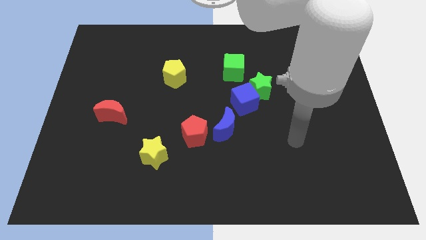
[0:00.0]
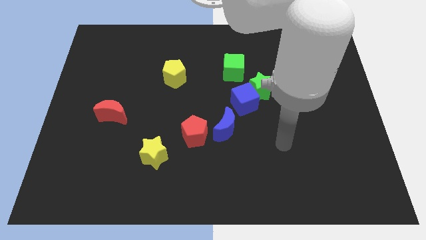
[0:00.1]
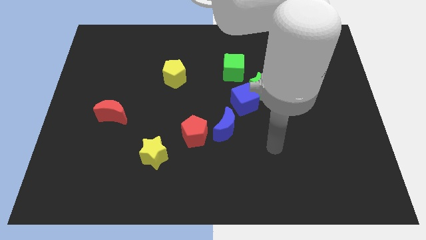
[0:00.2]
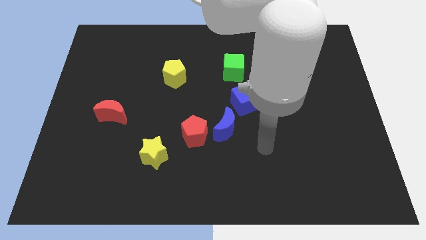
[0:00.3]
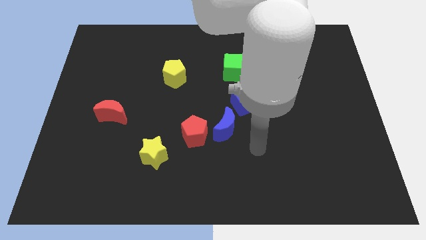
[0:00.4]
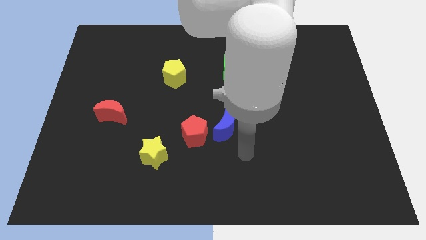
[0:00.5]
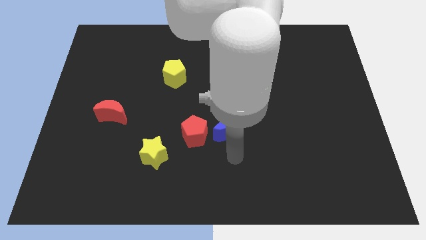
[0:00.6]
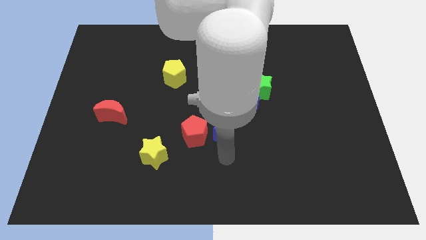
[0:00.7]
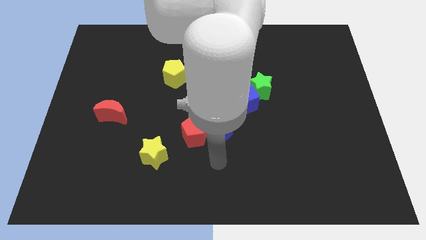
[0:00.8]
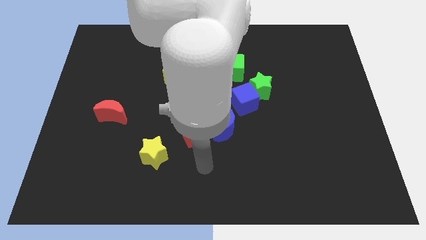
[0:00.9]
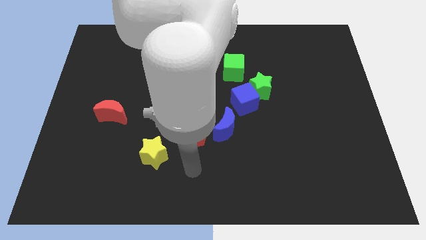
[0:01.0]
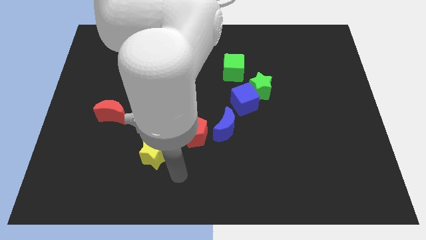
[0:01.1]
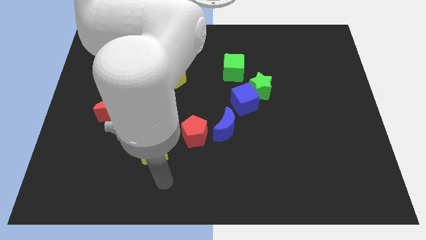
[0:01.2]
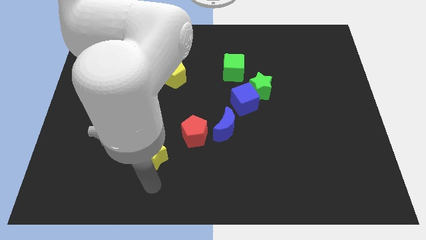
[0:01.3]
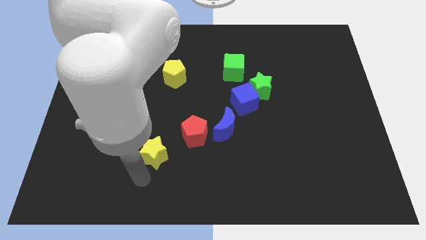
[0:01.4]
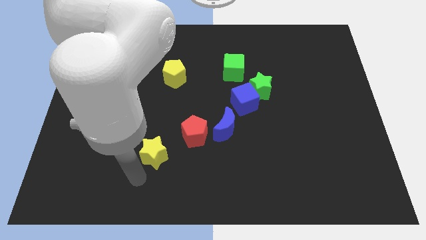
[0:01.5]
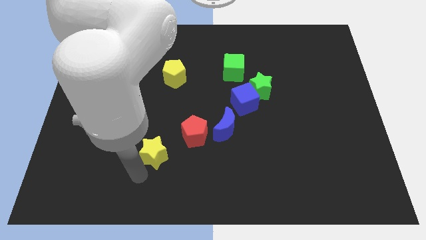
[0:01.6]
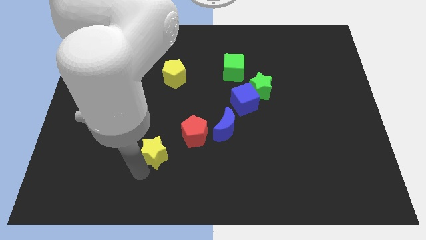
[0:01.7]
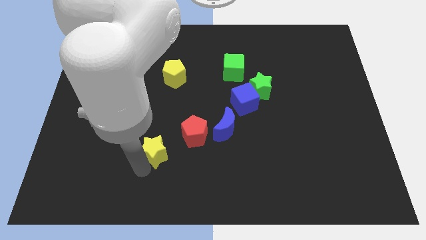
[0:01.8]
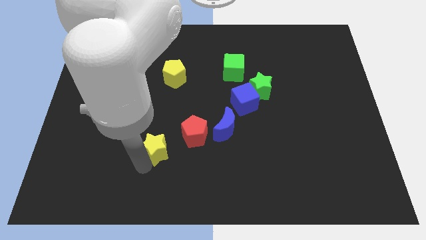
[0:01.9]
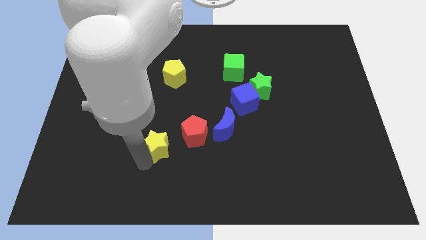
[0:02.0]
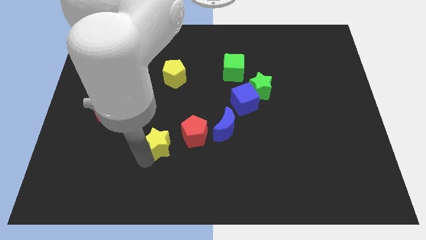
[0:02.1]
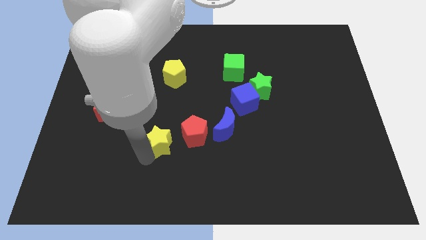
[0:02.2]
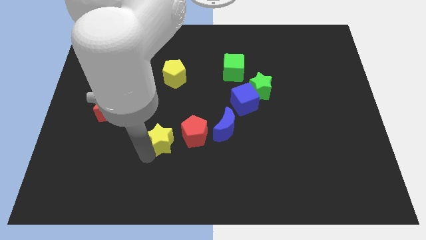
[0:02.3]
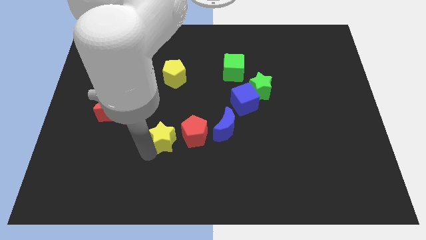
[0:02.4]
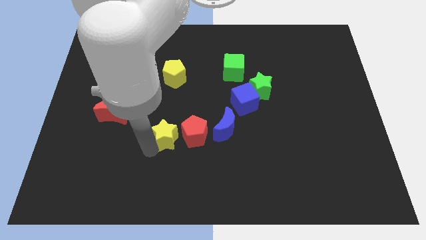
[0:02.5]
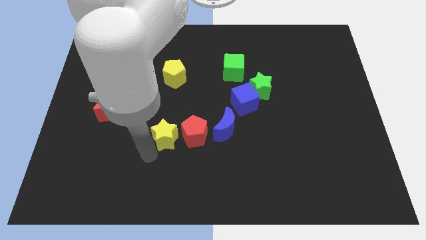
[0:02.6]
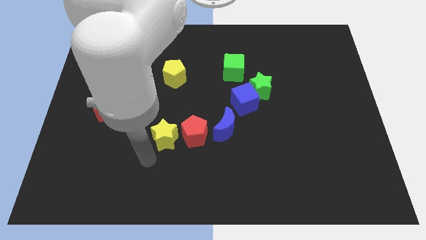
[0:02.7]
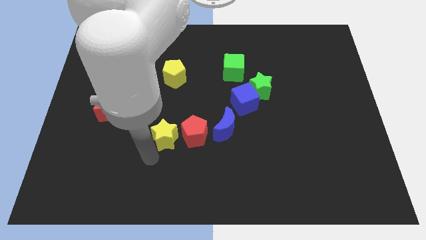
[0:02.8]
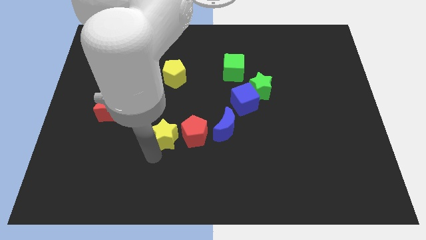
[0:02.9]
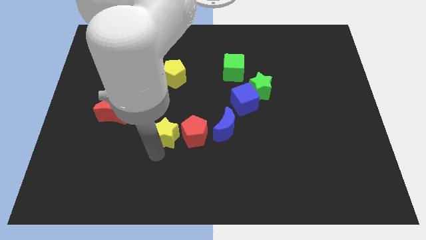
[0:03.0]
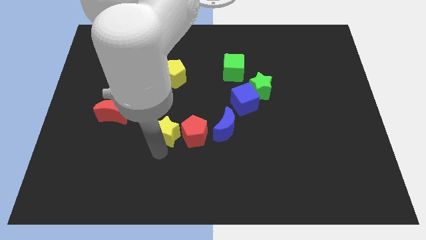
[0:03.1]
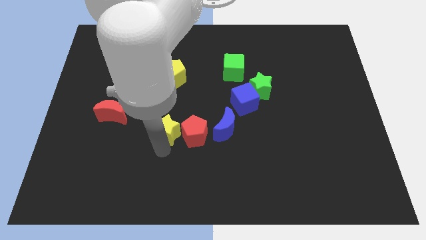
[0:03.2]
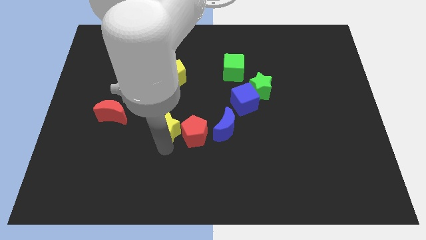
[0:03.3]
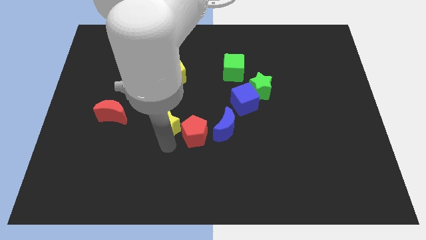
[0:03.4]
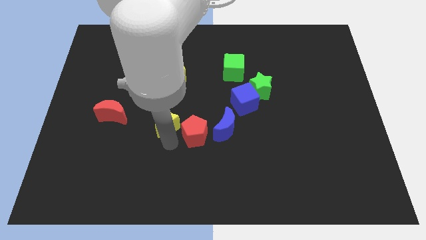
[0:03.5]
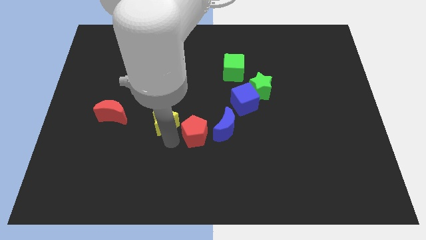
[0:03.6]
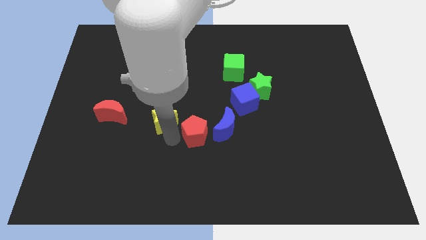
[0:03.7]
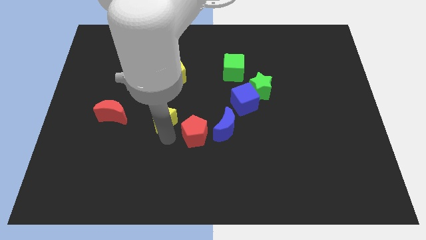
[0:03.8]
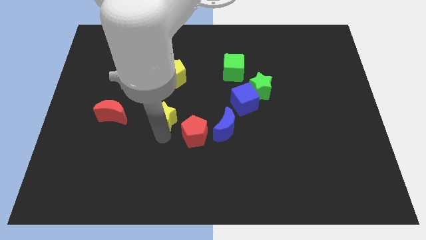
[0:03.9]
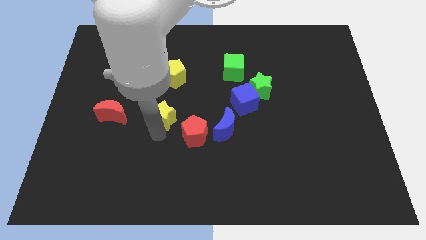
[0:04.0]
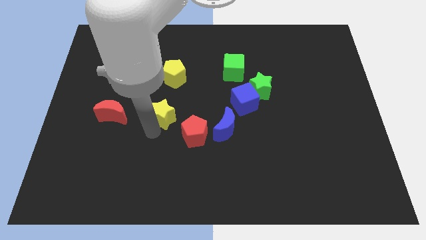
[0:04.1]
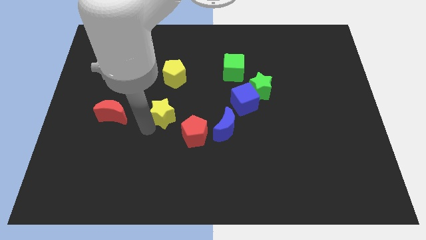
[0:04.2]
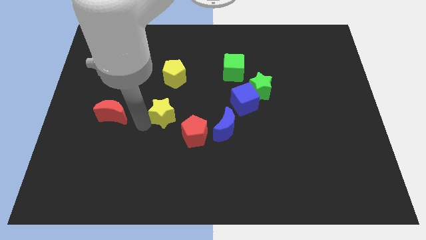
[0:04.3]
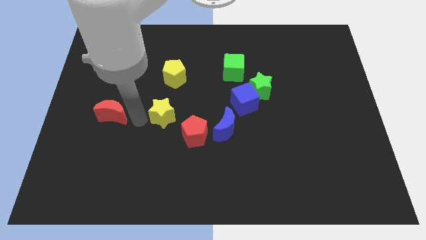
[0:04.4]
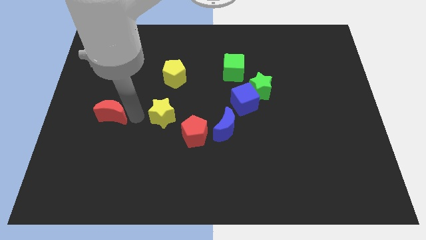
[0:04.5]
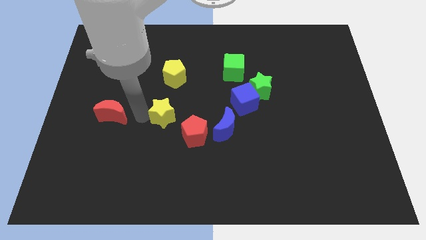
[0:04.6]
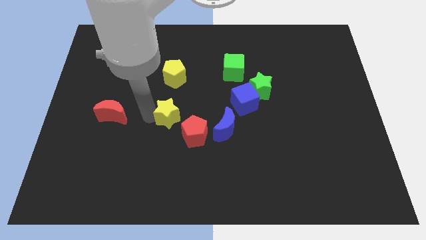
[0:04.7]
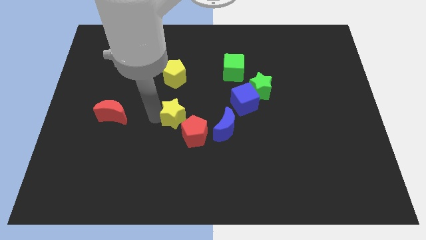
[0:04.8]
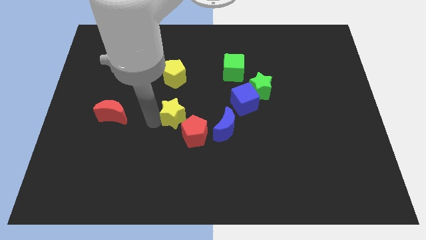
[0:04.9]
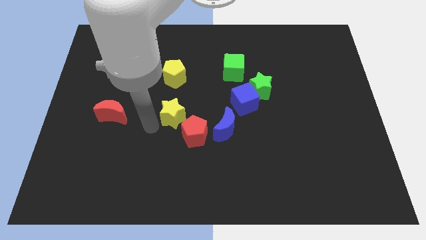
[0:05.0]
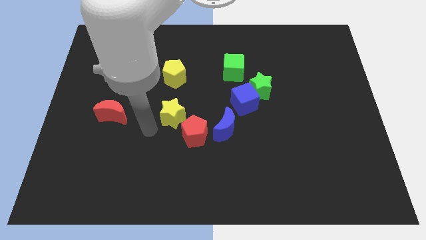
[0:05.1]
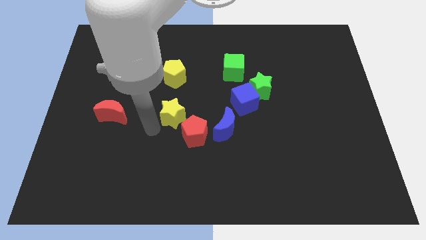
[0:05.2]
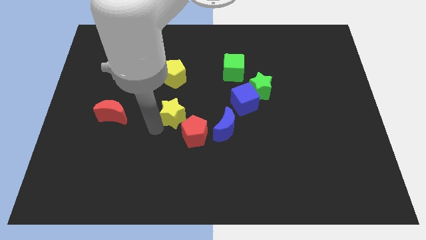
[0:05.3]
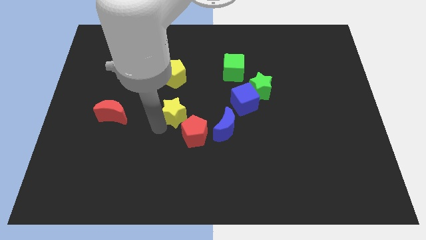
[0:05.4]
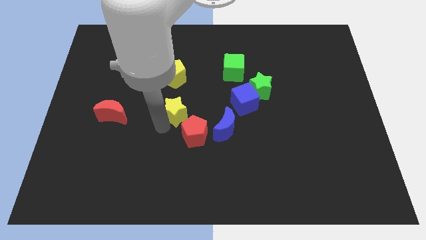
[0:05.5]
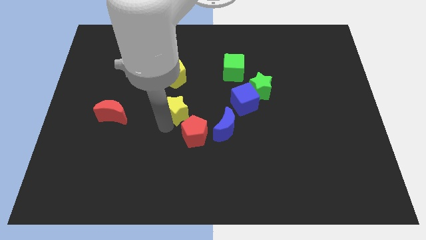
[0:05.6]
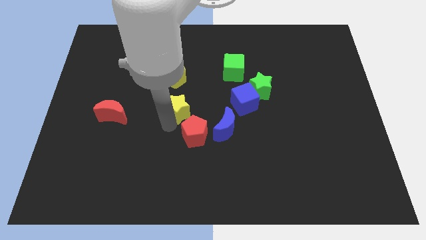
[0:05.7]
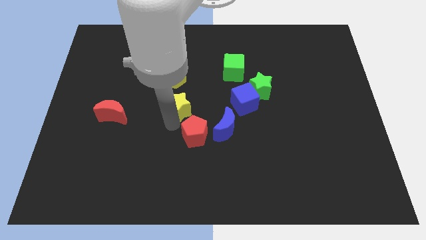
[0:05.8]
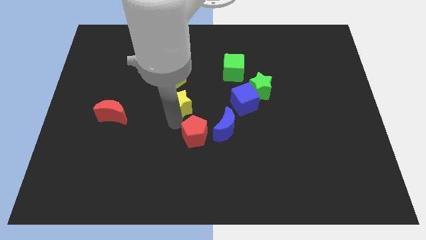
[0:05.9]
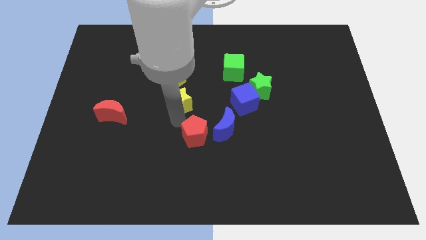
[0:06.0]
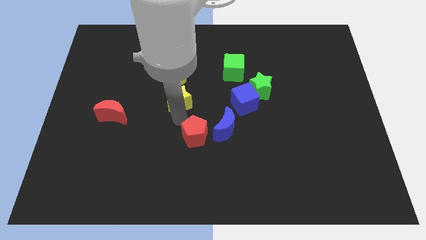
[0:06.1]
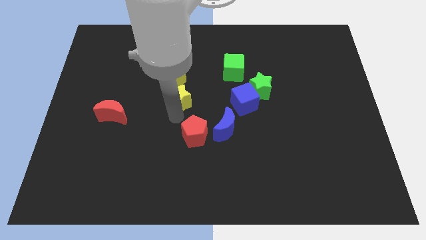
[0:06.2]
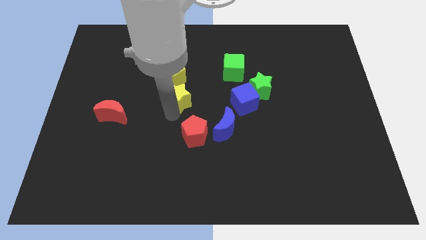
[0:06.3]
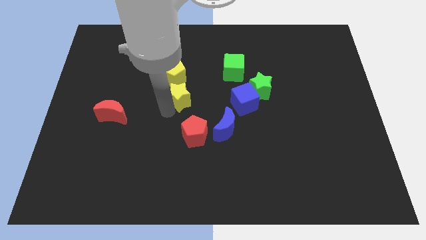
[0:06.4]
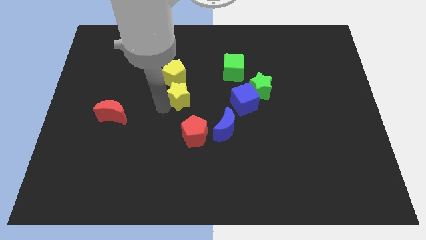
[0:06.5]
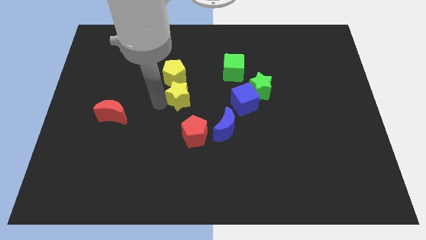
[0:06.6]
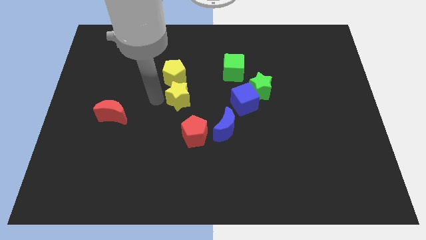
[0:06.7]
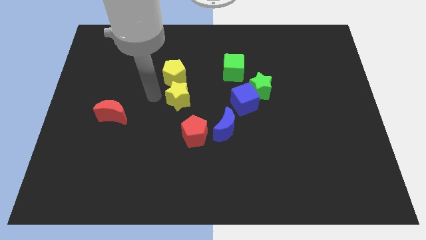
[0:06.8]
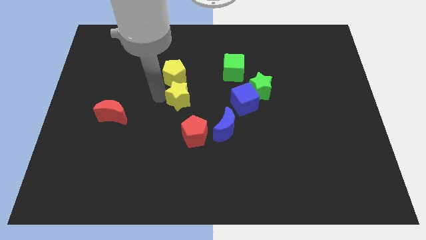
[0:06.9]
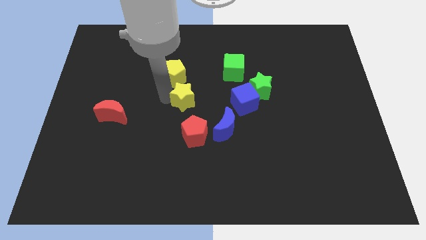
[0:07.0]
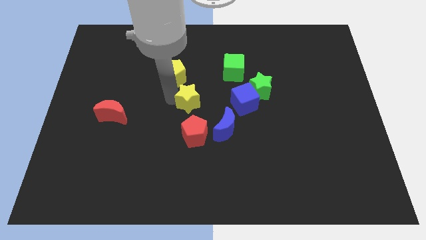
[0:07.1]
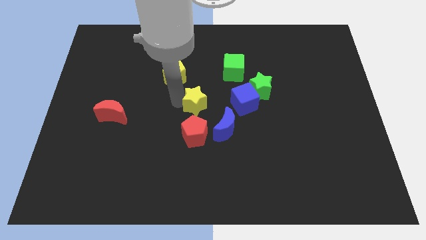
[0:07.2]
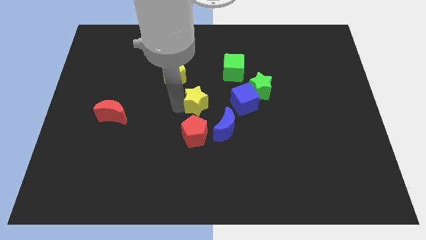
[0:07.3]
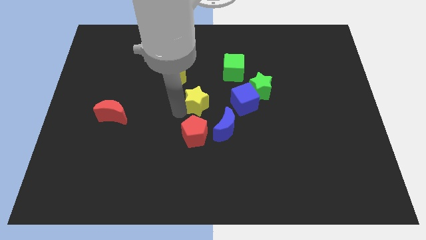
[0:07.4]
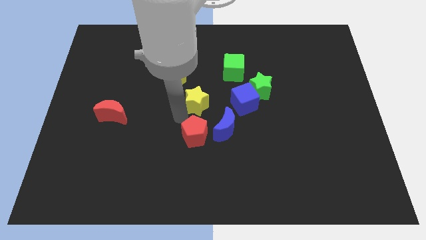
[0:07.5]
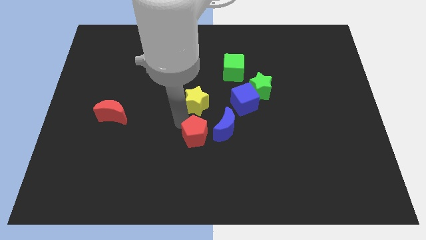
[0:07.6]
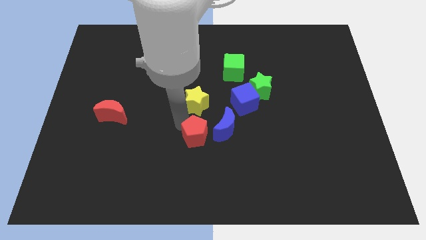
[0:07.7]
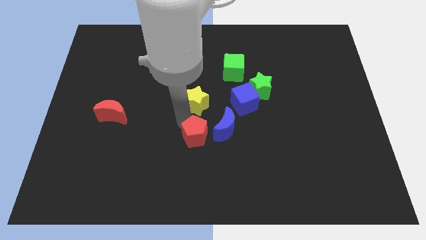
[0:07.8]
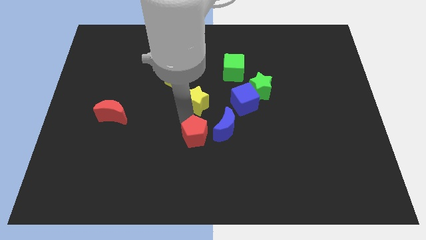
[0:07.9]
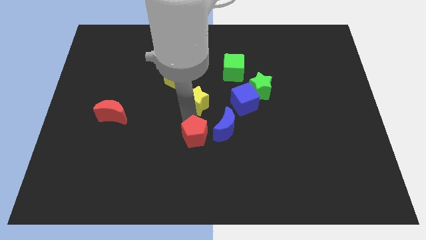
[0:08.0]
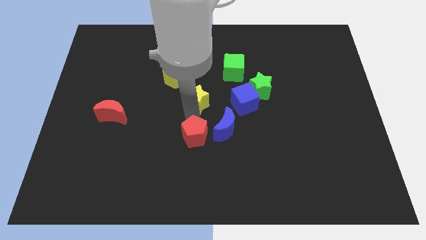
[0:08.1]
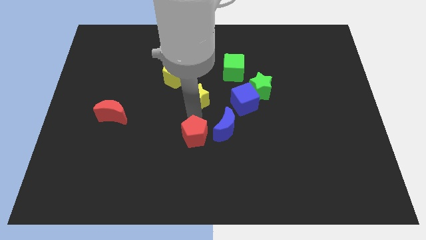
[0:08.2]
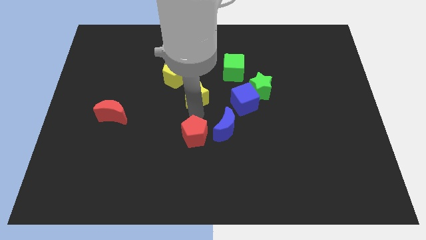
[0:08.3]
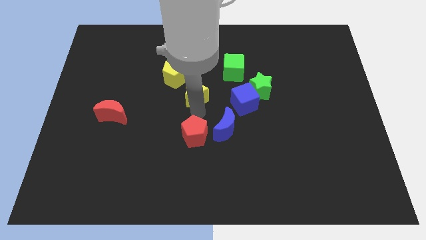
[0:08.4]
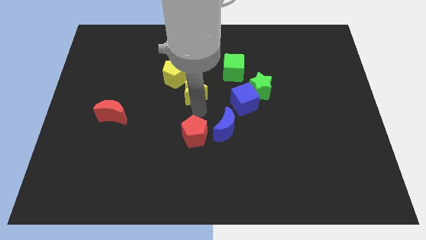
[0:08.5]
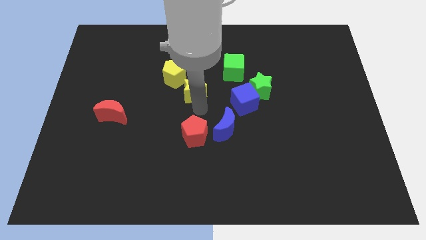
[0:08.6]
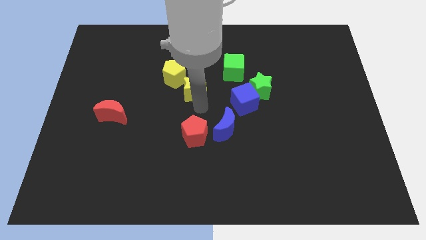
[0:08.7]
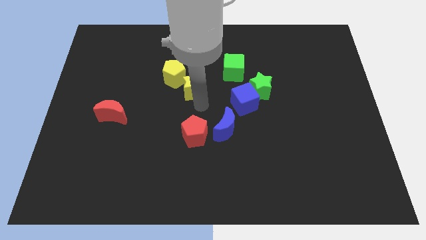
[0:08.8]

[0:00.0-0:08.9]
put the yellow star to the right of the yellow pentagon
